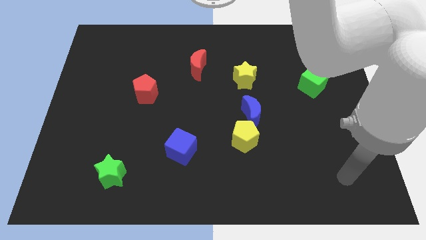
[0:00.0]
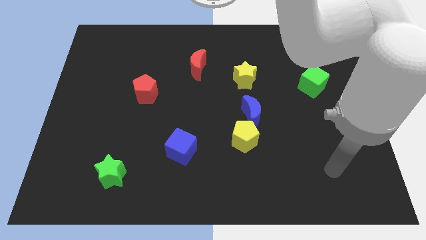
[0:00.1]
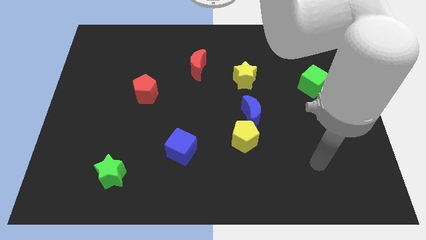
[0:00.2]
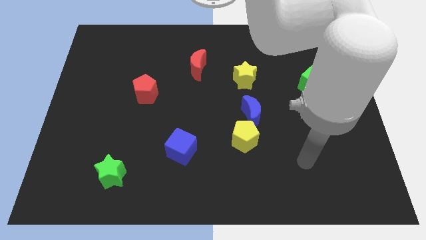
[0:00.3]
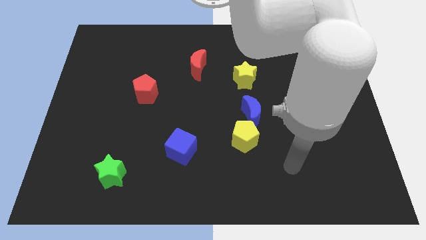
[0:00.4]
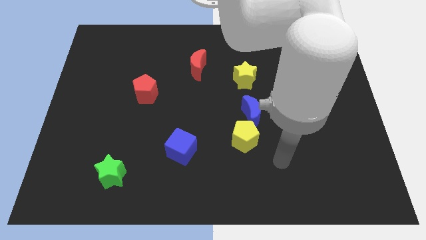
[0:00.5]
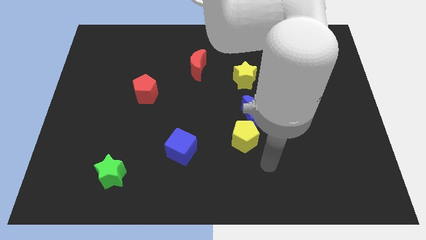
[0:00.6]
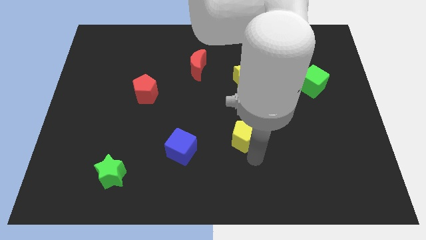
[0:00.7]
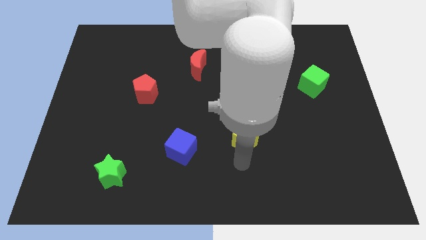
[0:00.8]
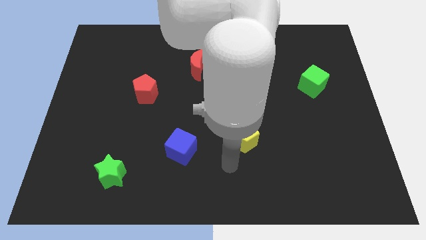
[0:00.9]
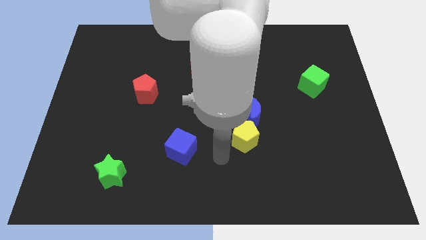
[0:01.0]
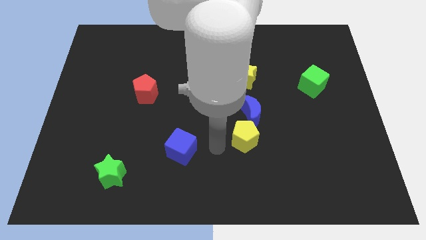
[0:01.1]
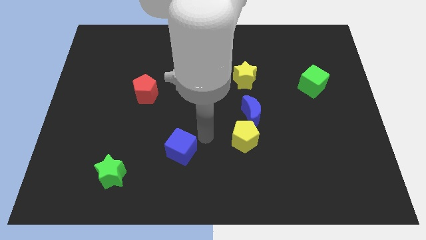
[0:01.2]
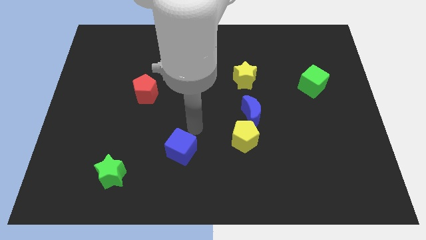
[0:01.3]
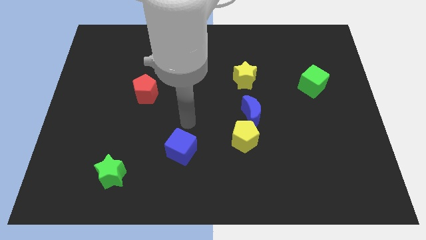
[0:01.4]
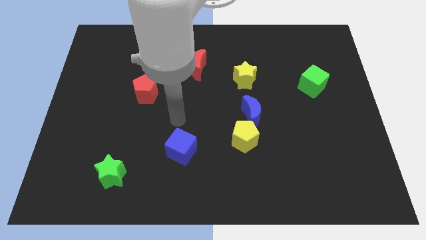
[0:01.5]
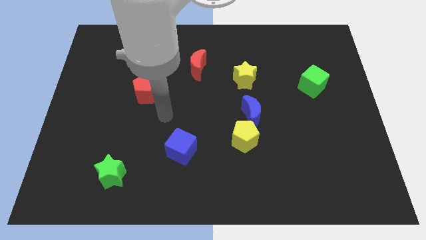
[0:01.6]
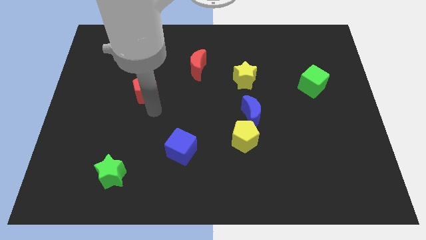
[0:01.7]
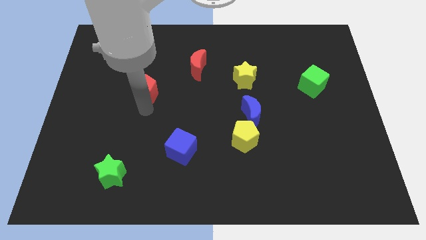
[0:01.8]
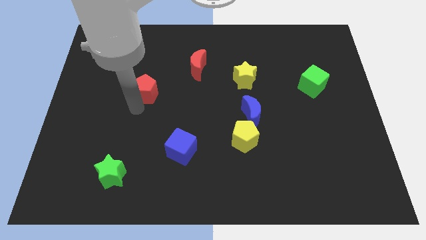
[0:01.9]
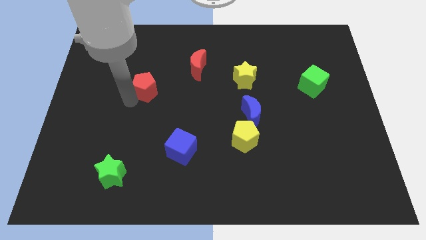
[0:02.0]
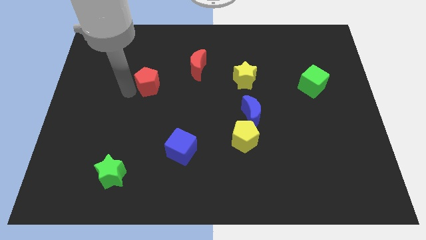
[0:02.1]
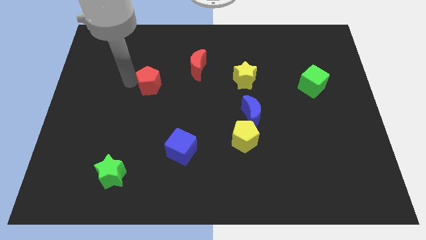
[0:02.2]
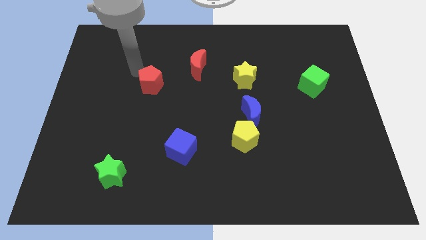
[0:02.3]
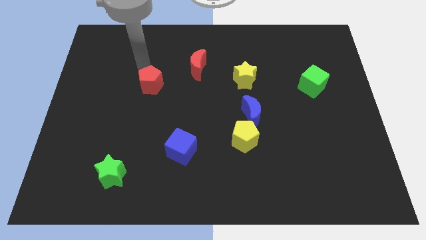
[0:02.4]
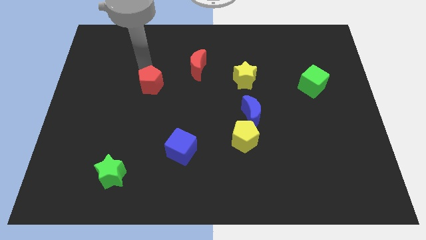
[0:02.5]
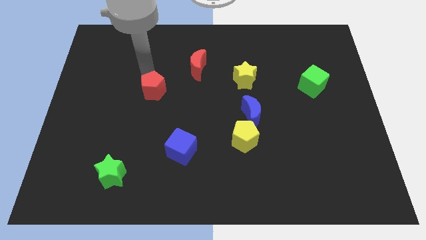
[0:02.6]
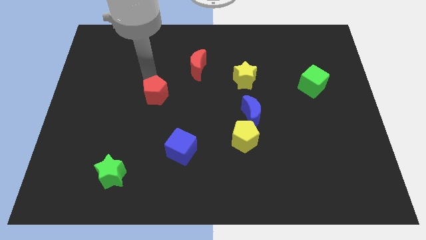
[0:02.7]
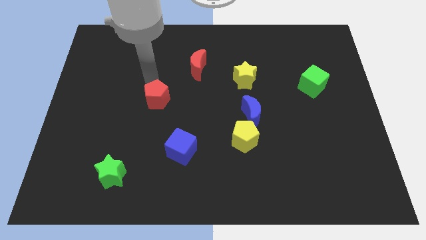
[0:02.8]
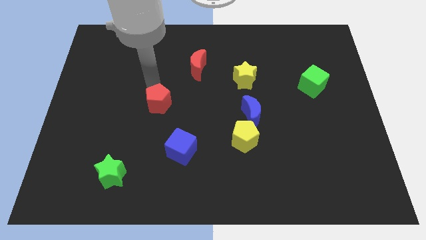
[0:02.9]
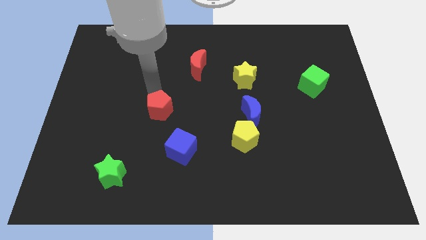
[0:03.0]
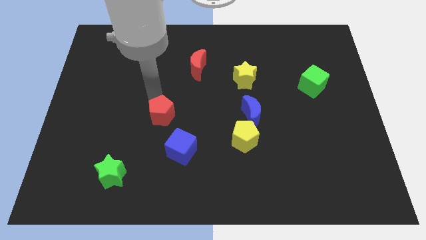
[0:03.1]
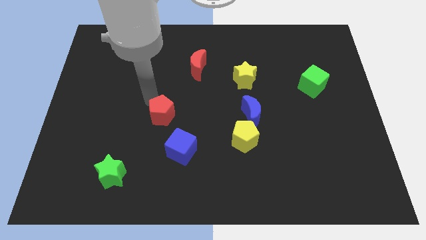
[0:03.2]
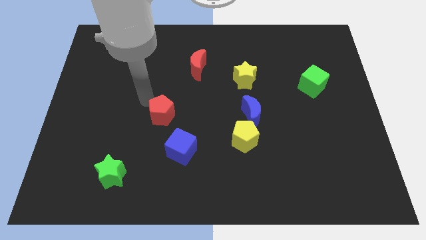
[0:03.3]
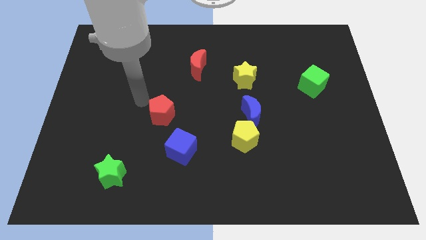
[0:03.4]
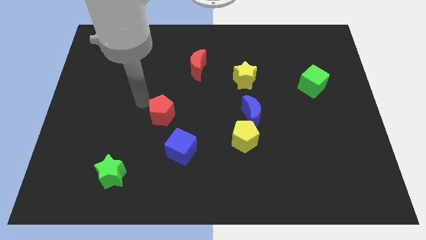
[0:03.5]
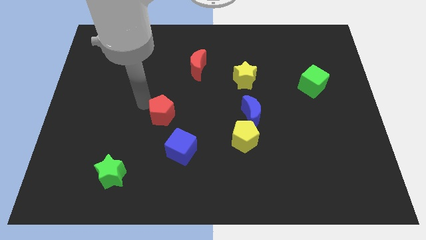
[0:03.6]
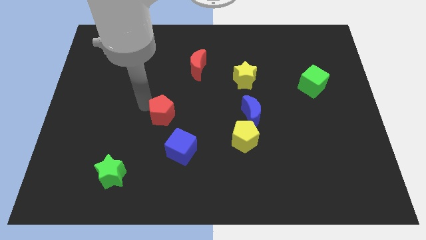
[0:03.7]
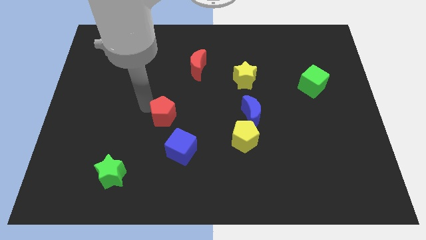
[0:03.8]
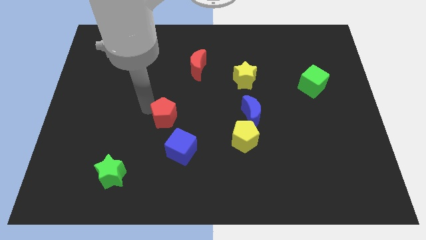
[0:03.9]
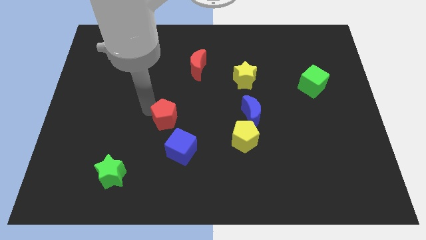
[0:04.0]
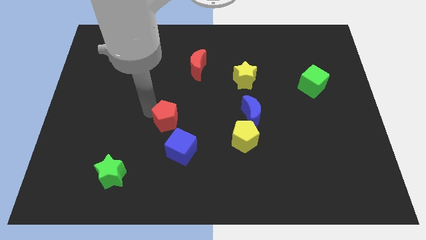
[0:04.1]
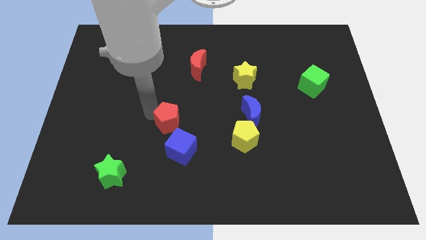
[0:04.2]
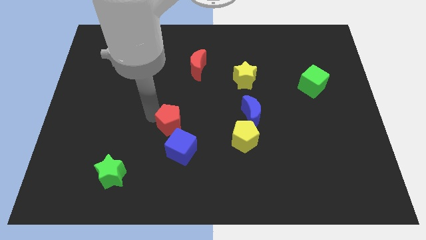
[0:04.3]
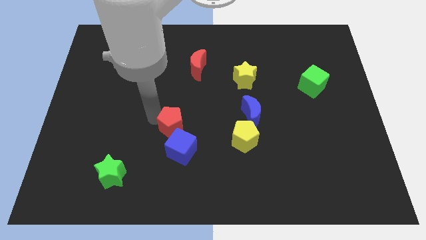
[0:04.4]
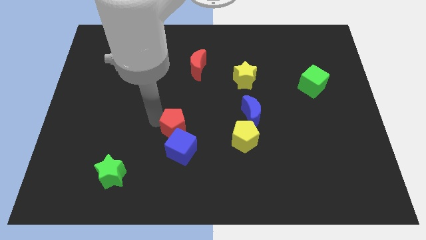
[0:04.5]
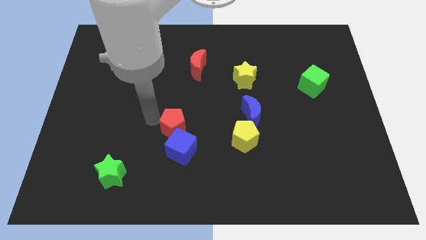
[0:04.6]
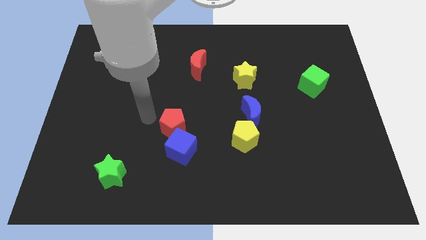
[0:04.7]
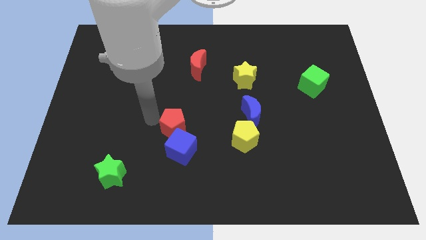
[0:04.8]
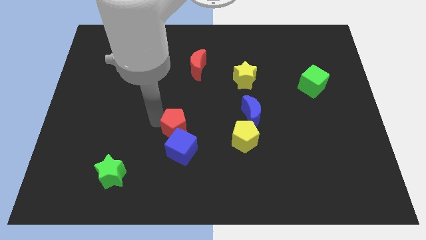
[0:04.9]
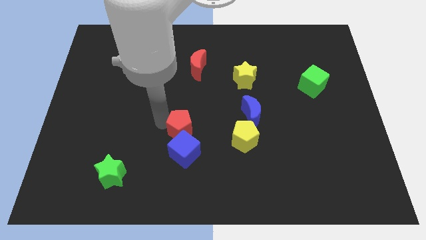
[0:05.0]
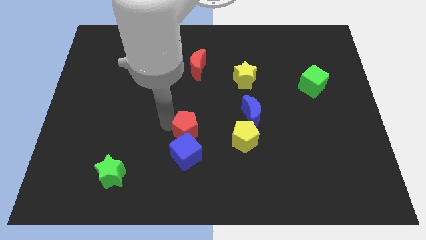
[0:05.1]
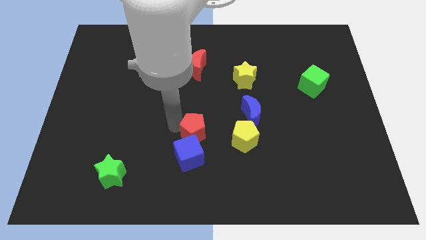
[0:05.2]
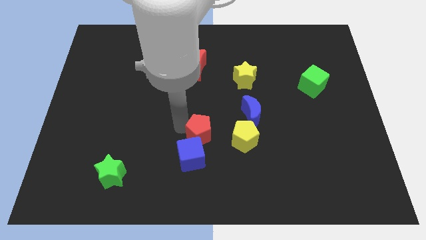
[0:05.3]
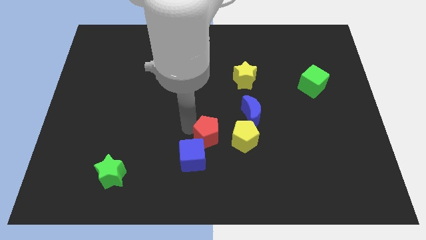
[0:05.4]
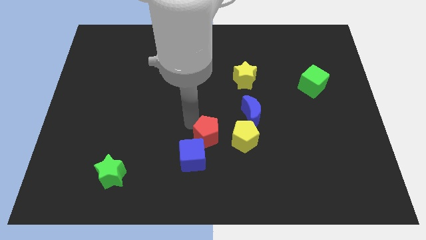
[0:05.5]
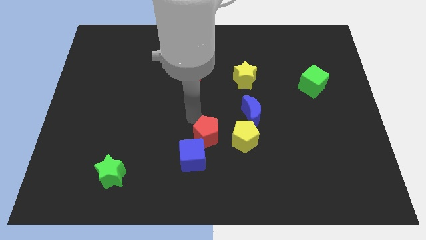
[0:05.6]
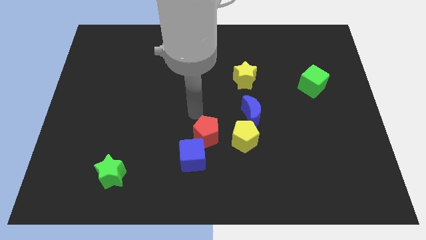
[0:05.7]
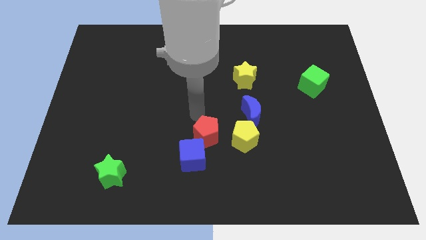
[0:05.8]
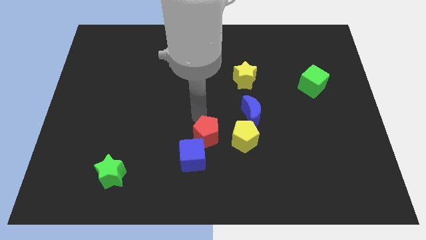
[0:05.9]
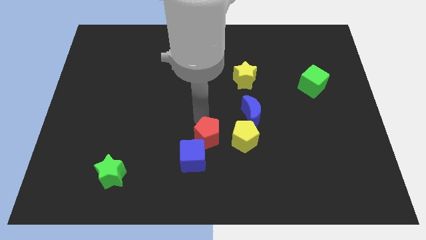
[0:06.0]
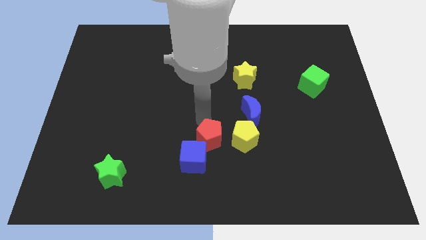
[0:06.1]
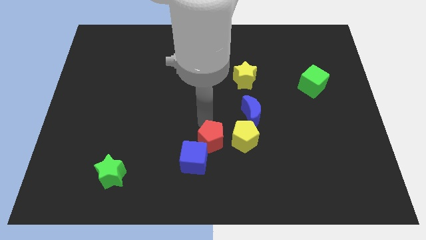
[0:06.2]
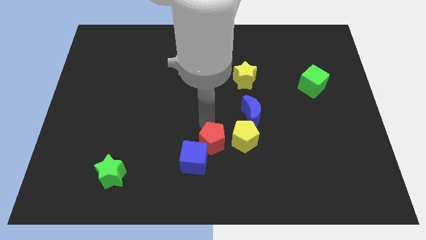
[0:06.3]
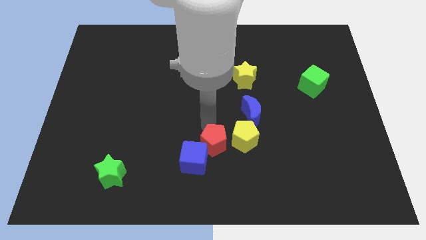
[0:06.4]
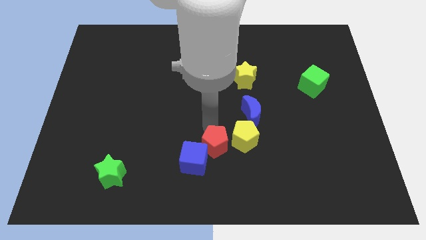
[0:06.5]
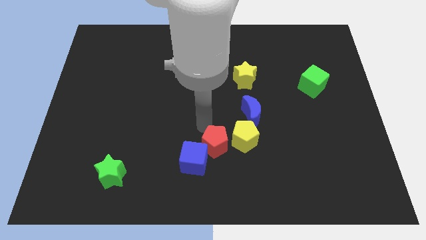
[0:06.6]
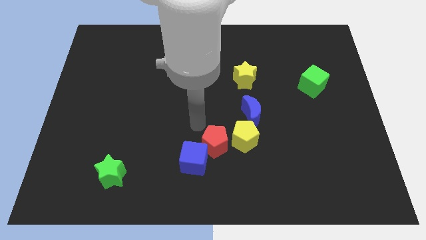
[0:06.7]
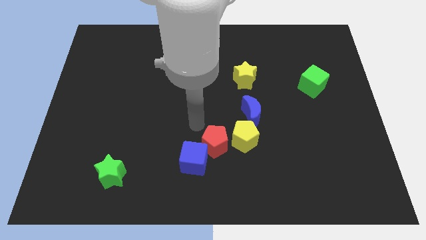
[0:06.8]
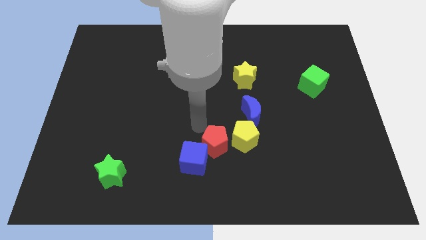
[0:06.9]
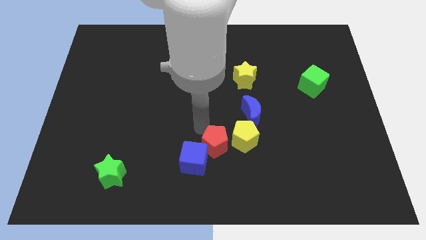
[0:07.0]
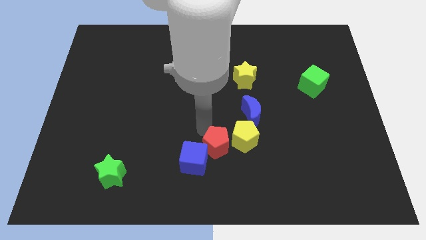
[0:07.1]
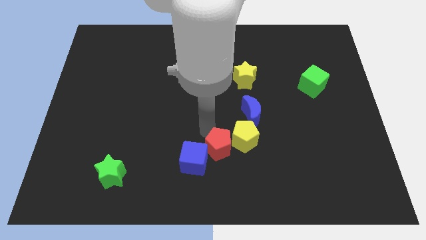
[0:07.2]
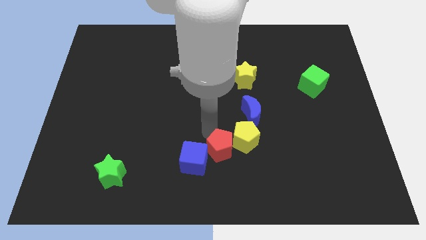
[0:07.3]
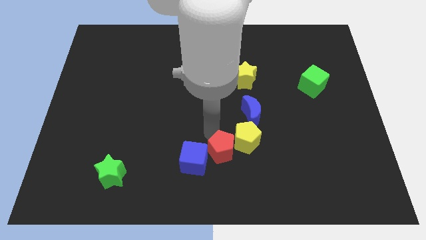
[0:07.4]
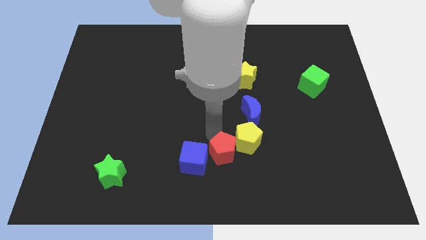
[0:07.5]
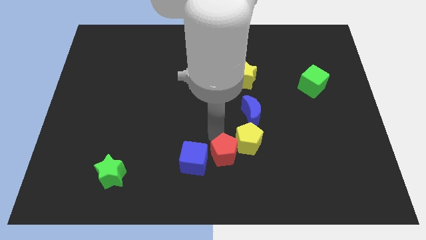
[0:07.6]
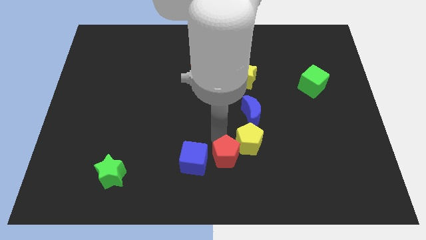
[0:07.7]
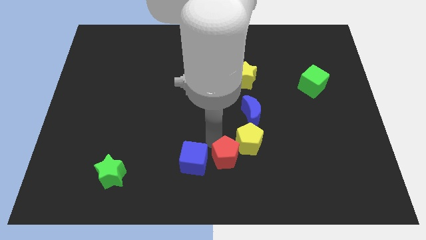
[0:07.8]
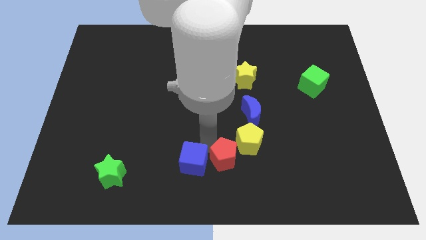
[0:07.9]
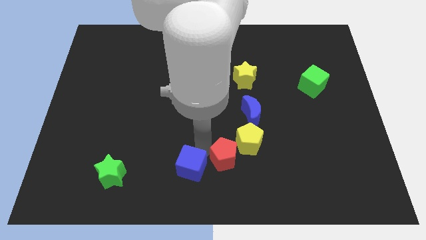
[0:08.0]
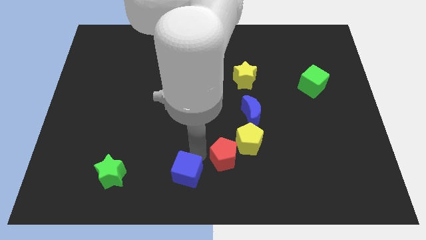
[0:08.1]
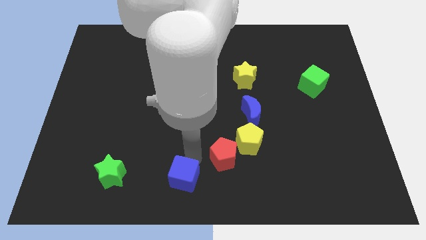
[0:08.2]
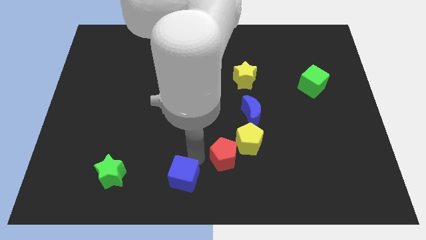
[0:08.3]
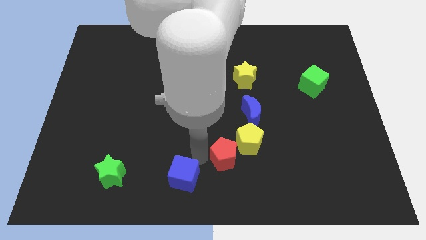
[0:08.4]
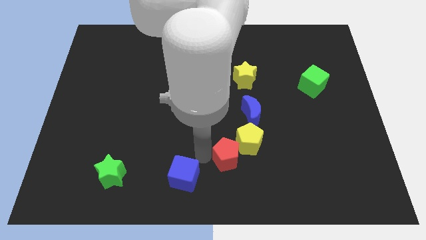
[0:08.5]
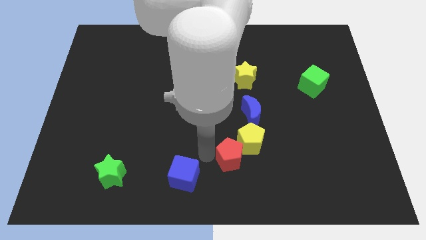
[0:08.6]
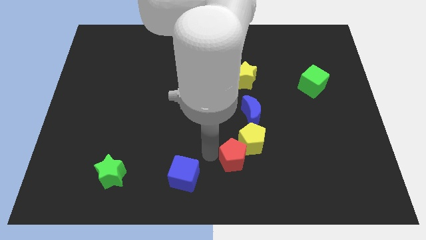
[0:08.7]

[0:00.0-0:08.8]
push the red pentagon to the bottom side of the blue moon
